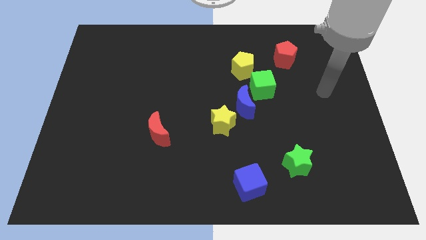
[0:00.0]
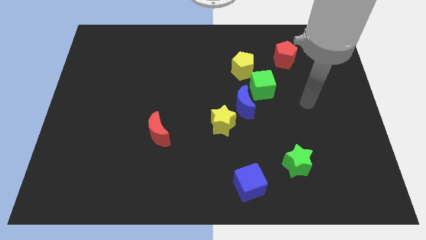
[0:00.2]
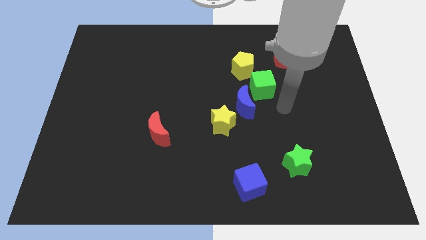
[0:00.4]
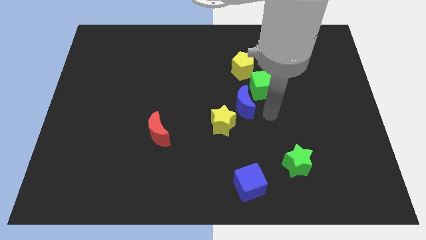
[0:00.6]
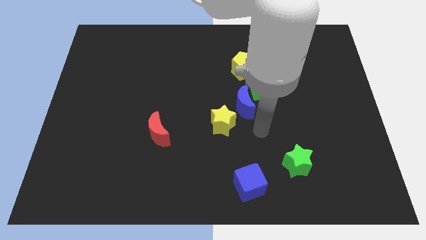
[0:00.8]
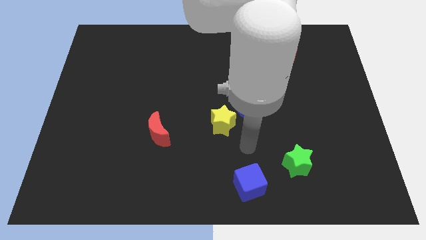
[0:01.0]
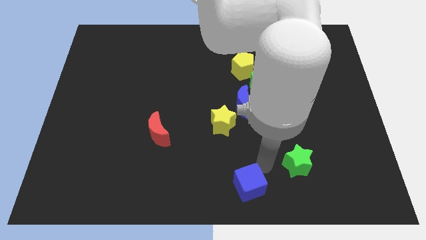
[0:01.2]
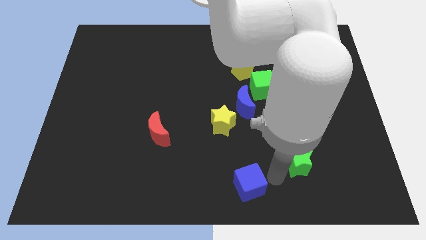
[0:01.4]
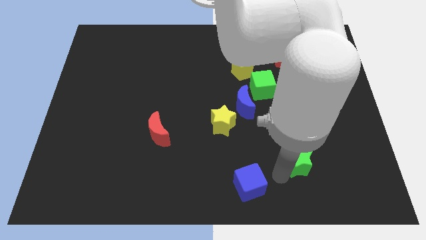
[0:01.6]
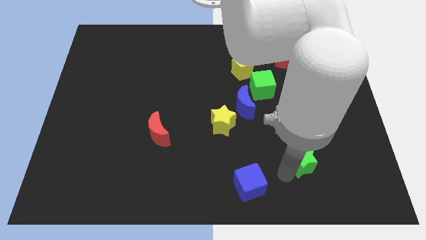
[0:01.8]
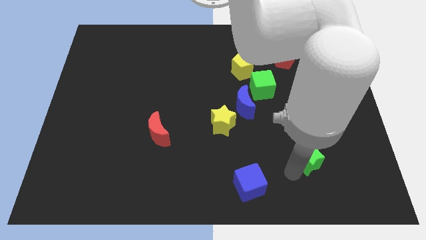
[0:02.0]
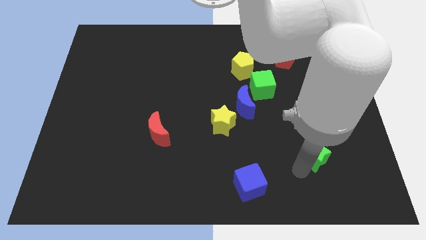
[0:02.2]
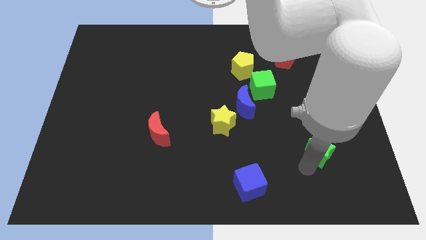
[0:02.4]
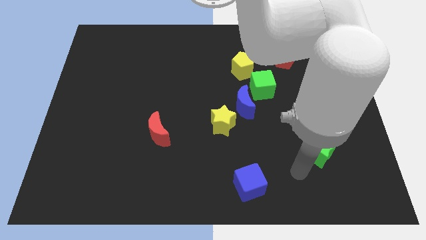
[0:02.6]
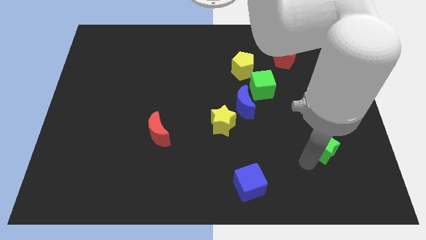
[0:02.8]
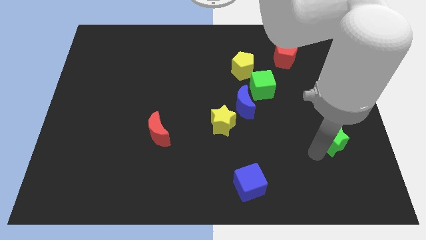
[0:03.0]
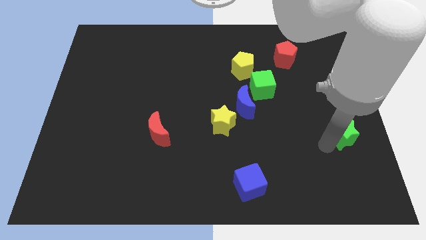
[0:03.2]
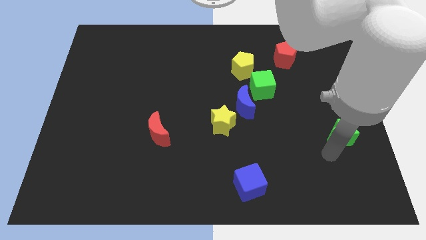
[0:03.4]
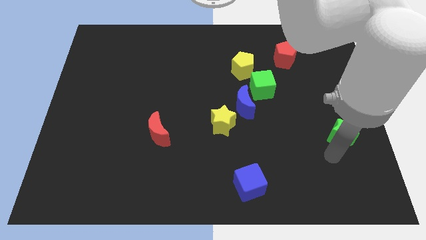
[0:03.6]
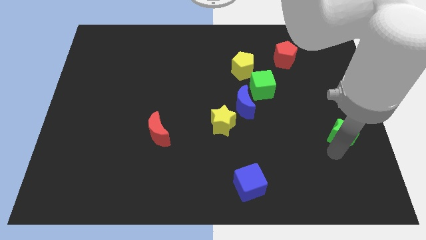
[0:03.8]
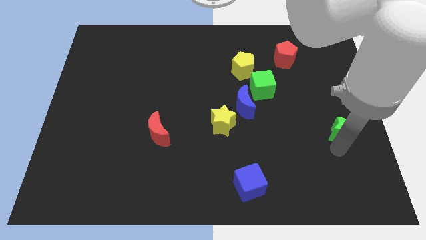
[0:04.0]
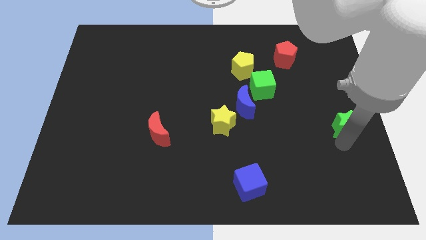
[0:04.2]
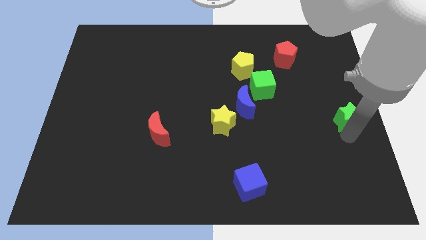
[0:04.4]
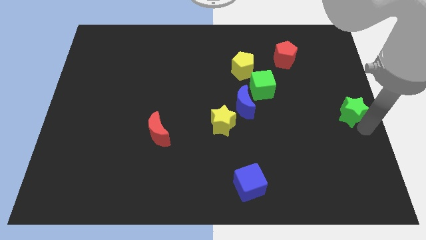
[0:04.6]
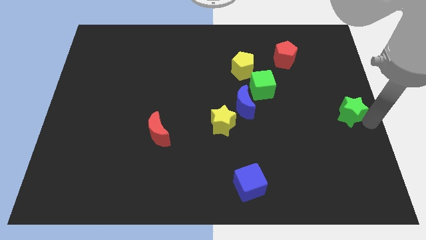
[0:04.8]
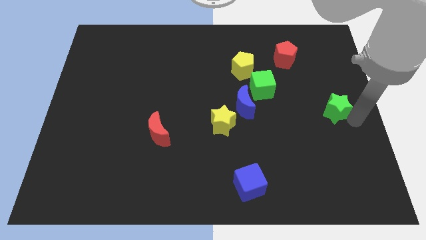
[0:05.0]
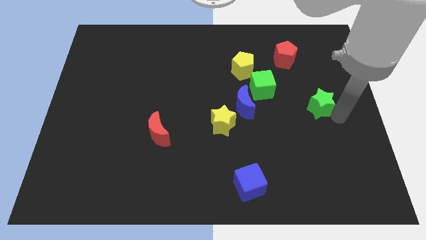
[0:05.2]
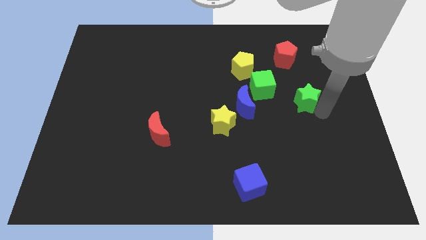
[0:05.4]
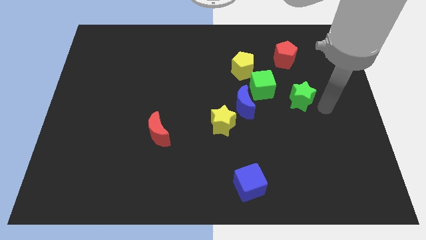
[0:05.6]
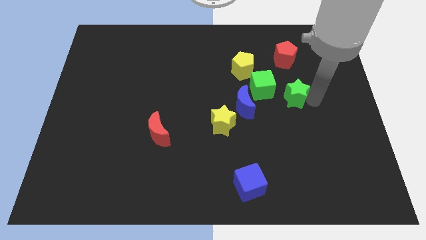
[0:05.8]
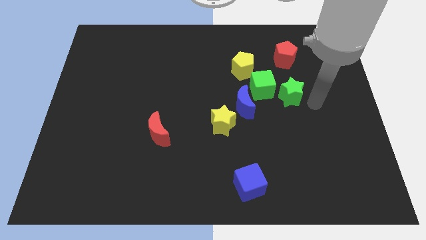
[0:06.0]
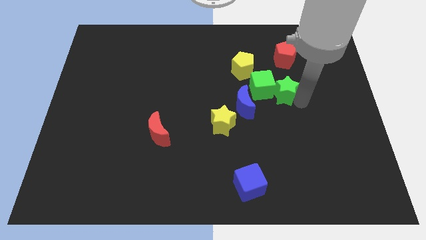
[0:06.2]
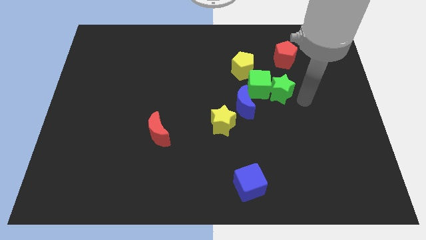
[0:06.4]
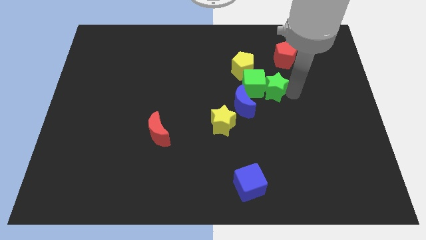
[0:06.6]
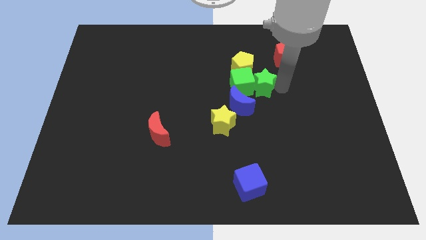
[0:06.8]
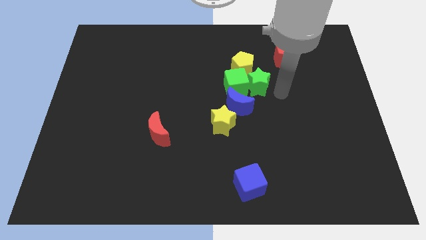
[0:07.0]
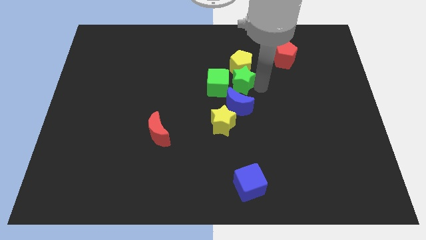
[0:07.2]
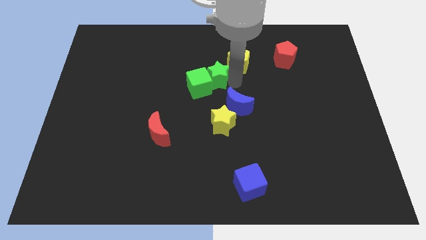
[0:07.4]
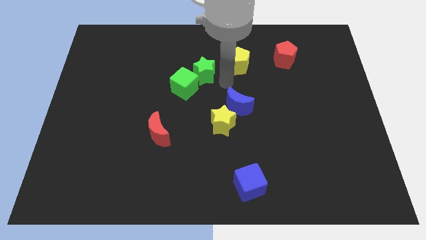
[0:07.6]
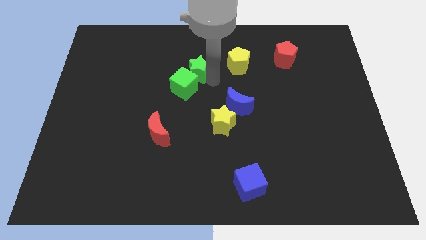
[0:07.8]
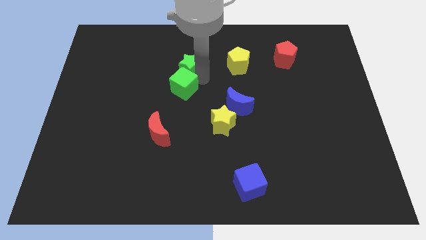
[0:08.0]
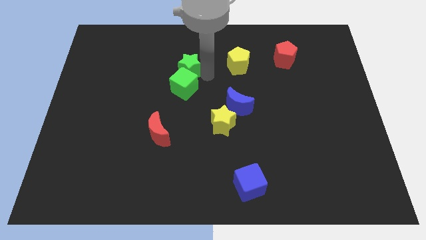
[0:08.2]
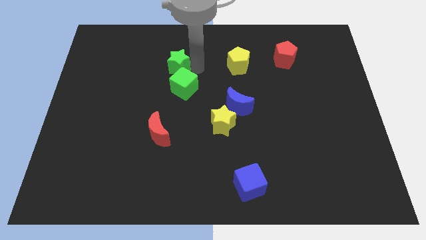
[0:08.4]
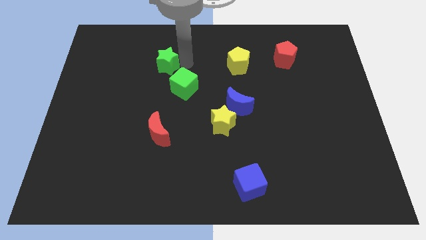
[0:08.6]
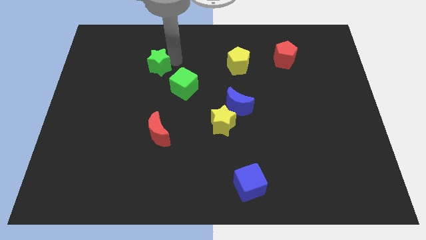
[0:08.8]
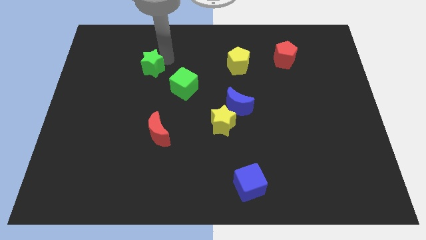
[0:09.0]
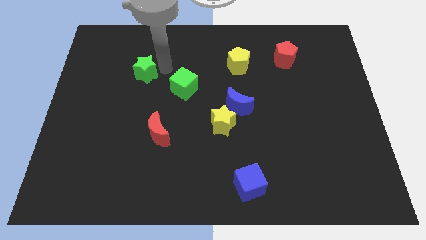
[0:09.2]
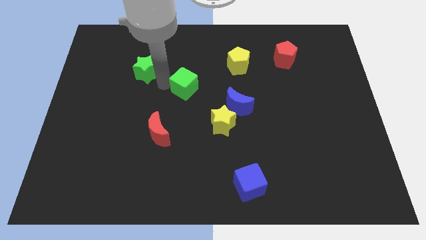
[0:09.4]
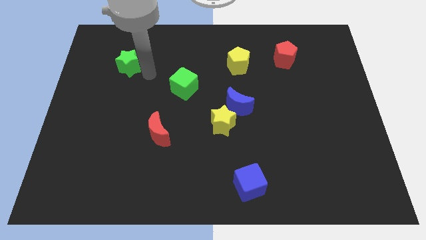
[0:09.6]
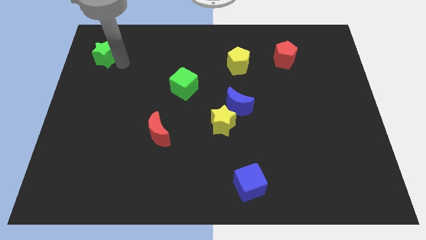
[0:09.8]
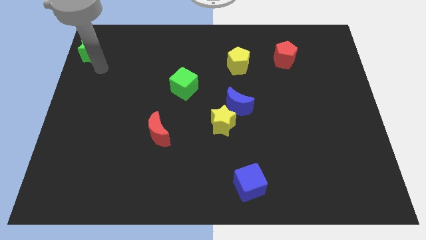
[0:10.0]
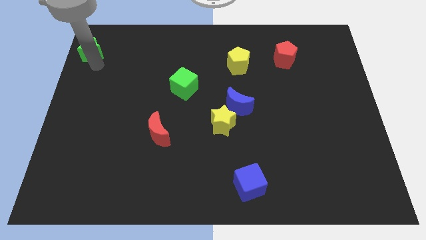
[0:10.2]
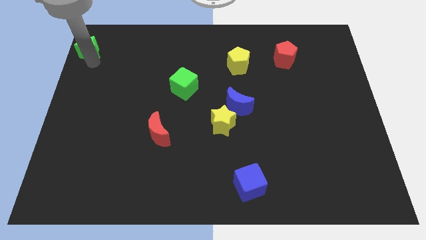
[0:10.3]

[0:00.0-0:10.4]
slide the green star to the top left corner

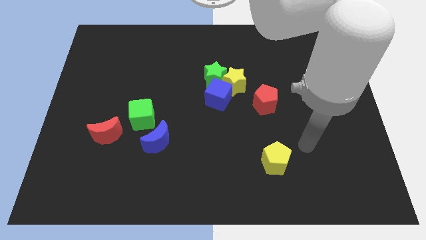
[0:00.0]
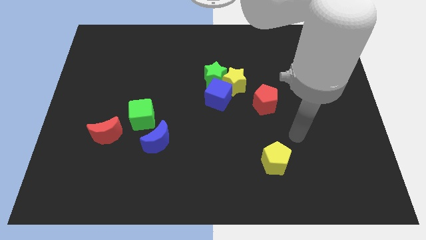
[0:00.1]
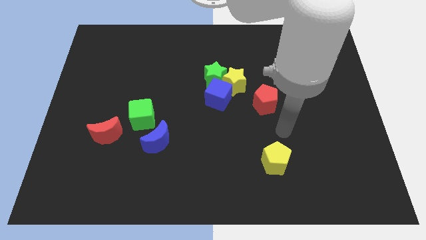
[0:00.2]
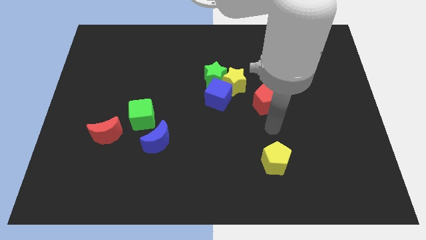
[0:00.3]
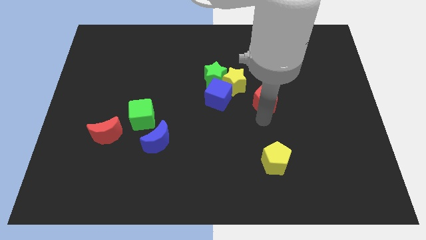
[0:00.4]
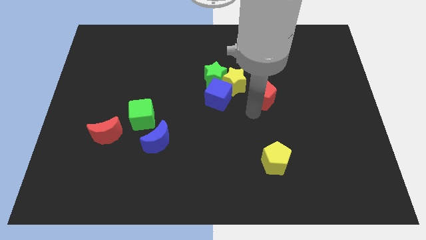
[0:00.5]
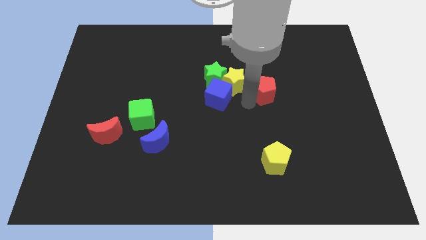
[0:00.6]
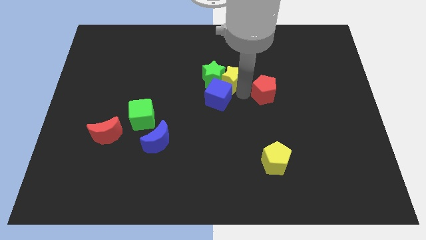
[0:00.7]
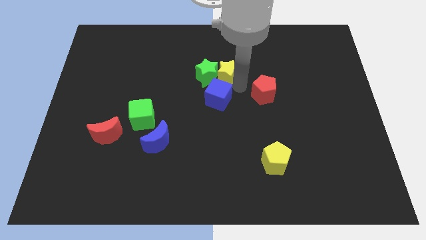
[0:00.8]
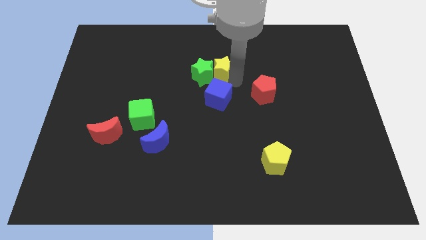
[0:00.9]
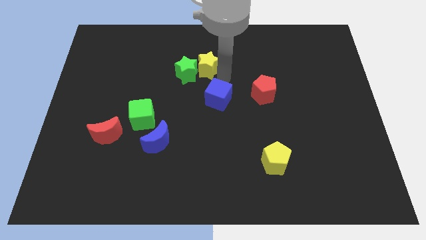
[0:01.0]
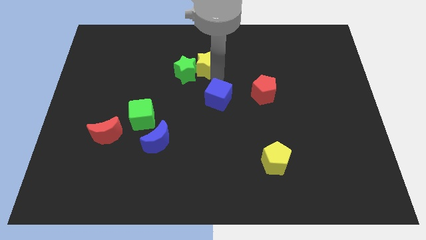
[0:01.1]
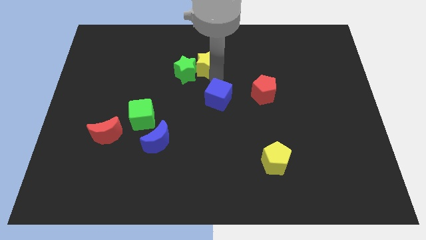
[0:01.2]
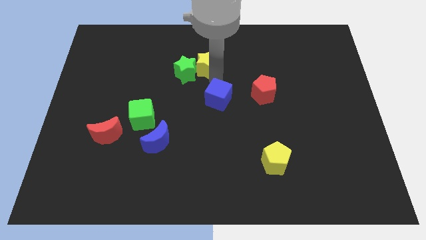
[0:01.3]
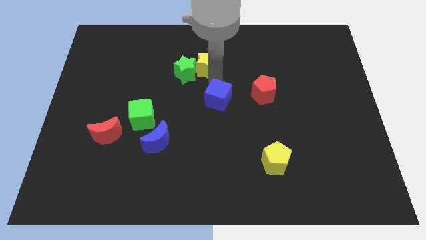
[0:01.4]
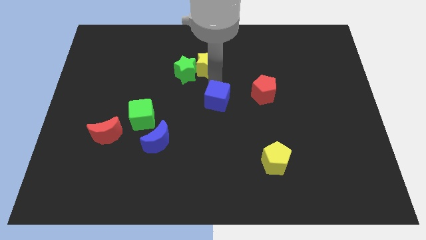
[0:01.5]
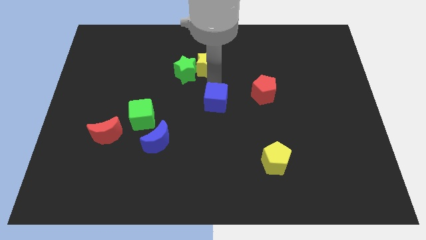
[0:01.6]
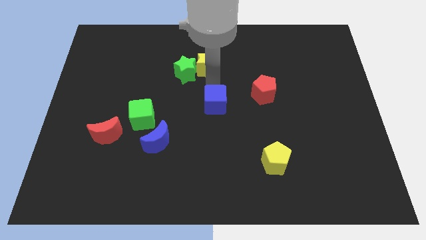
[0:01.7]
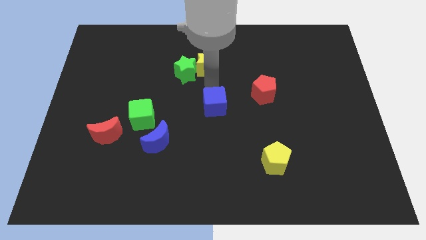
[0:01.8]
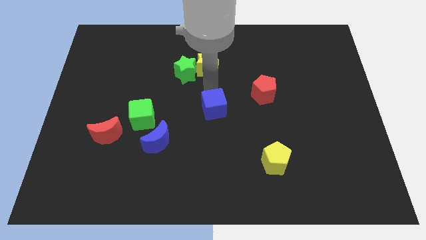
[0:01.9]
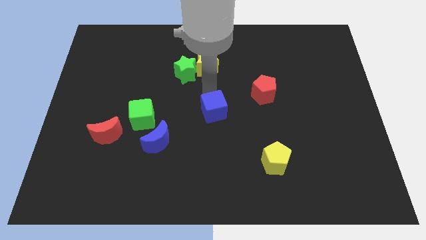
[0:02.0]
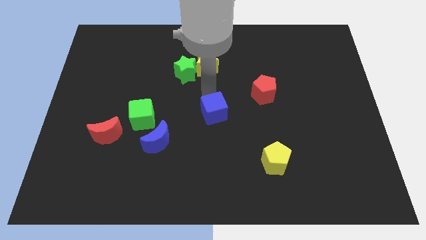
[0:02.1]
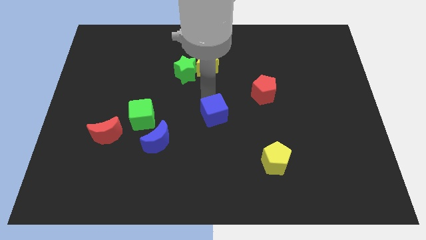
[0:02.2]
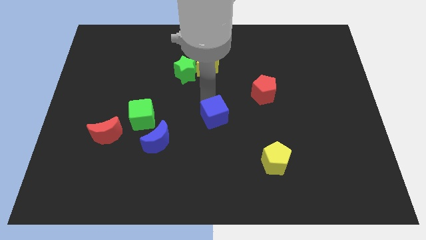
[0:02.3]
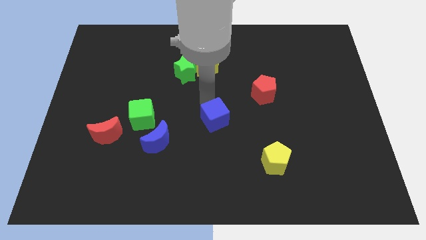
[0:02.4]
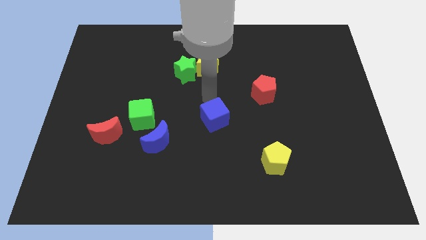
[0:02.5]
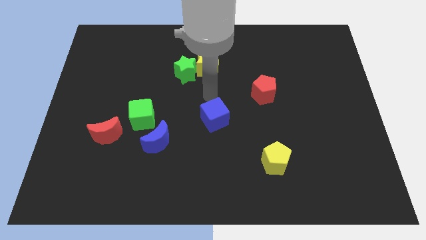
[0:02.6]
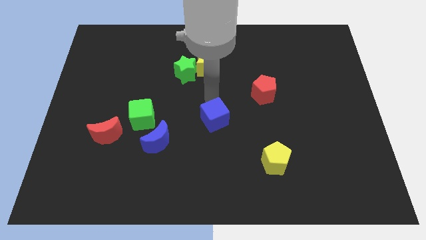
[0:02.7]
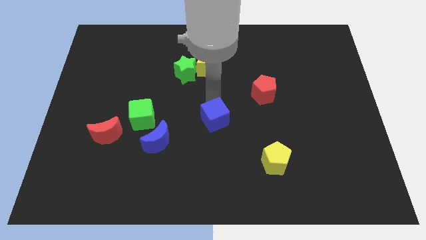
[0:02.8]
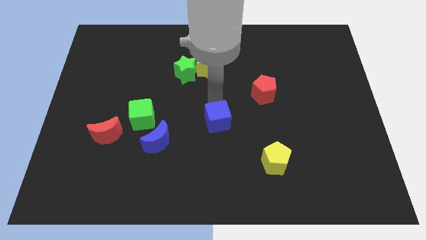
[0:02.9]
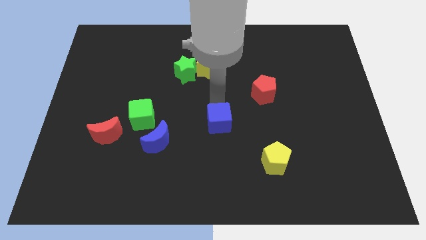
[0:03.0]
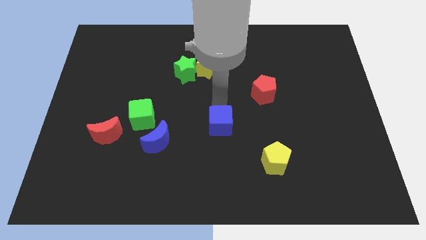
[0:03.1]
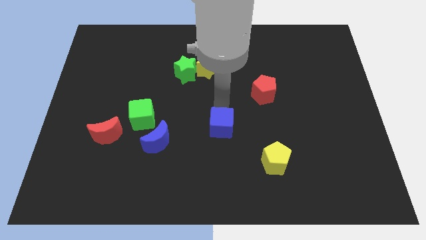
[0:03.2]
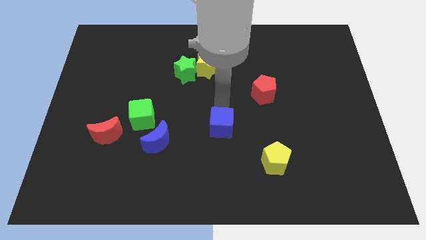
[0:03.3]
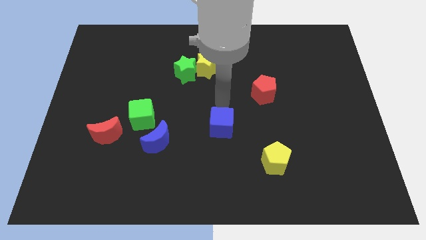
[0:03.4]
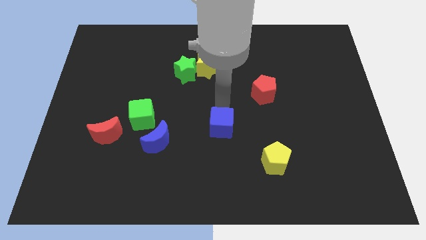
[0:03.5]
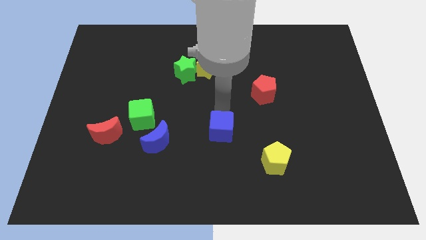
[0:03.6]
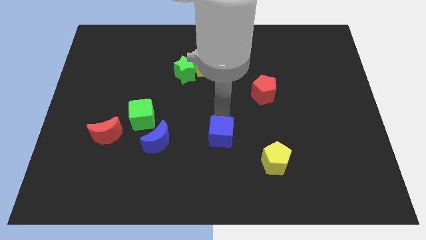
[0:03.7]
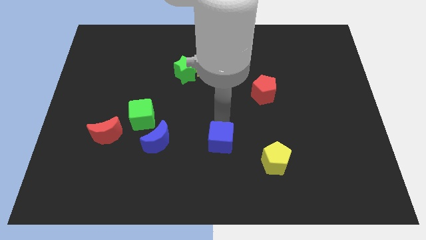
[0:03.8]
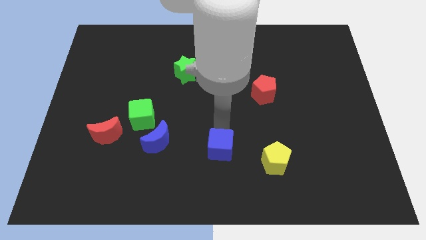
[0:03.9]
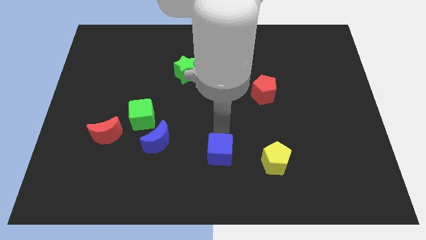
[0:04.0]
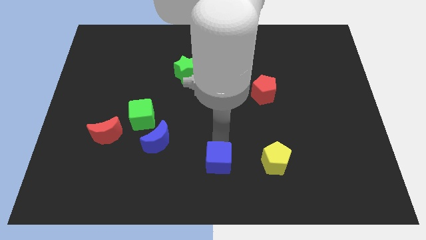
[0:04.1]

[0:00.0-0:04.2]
put the blue cube to the bottom side
